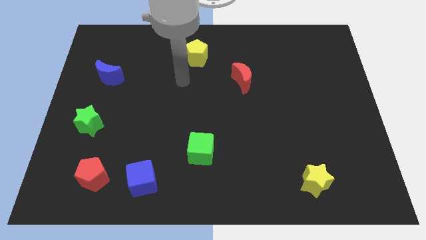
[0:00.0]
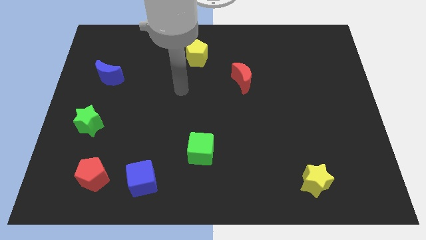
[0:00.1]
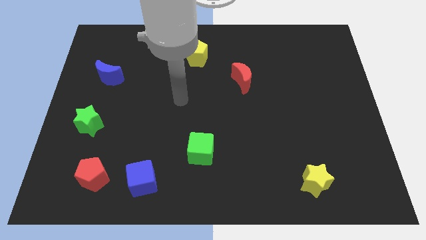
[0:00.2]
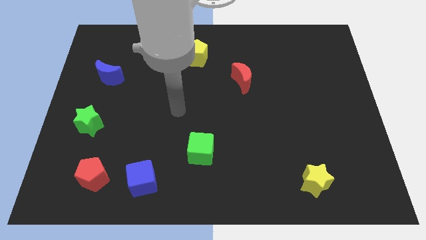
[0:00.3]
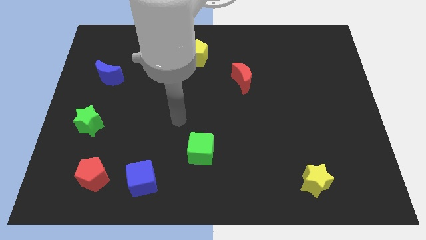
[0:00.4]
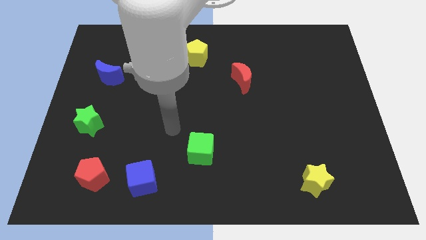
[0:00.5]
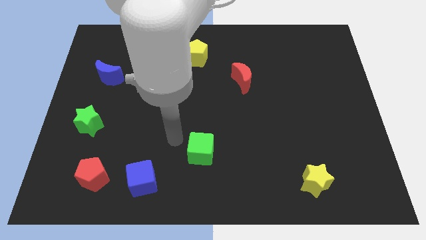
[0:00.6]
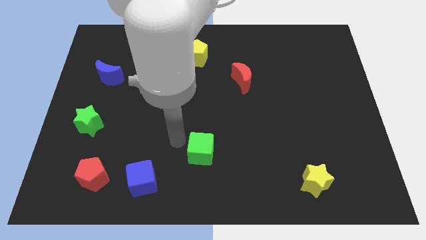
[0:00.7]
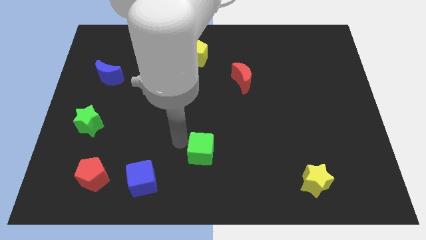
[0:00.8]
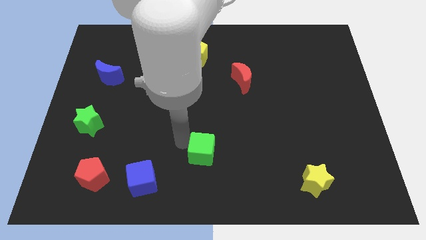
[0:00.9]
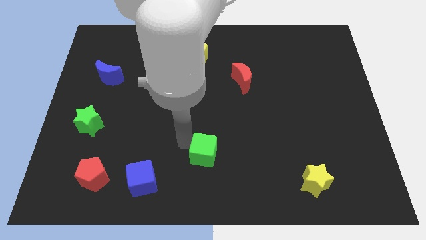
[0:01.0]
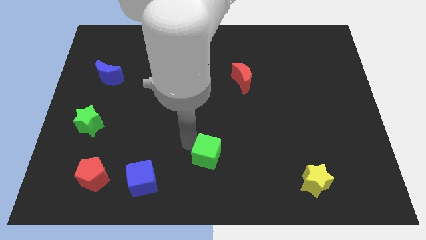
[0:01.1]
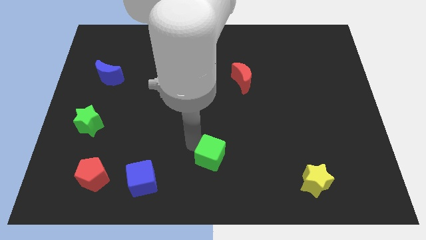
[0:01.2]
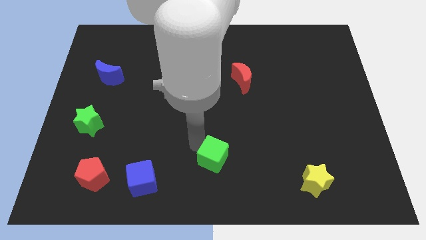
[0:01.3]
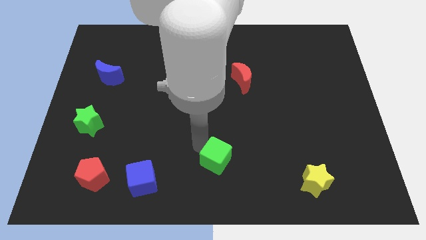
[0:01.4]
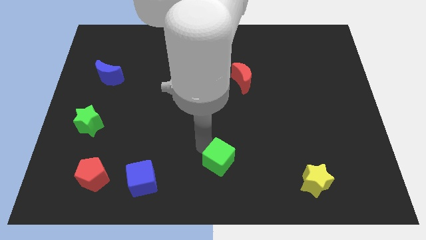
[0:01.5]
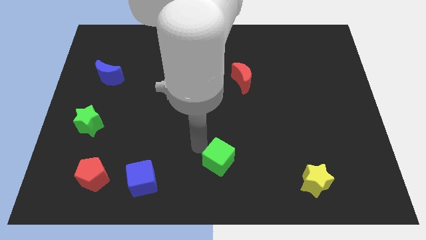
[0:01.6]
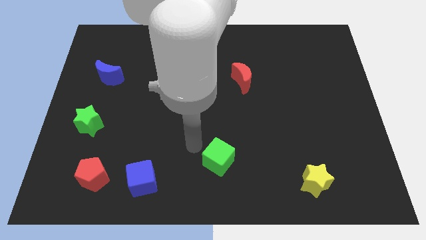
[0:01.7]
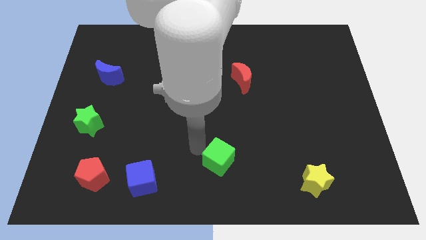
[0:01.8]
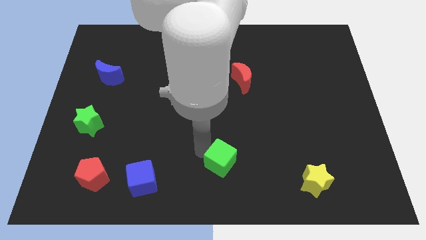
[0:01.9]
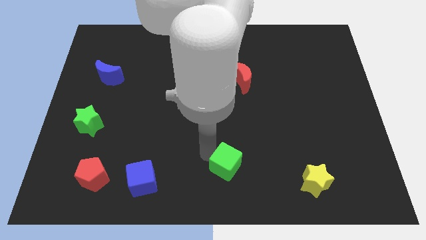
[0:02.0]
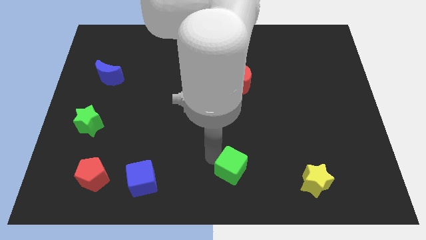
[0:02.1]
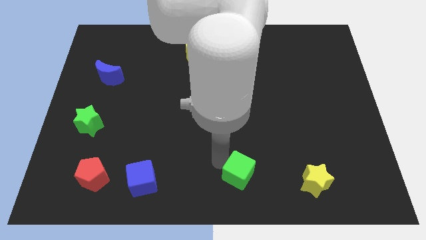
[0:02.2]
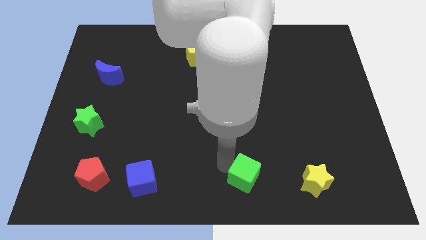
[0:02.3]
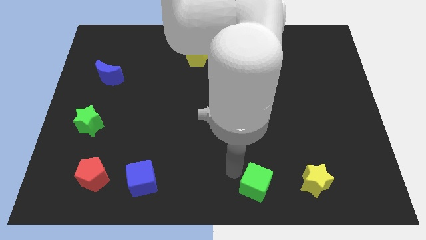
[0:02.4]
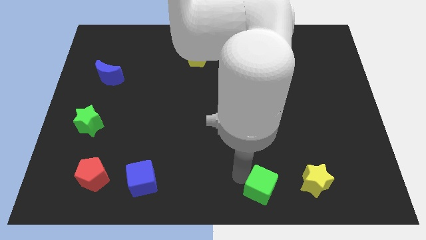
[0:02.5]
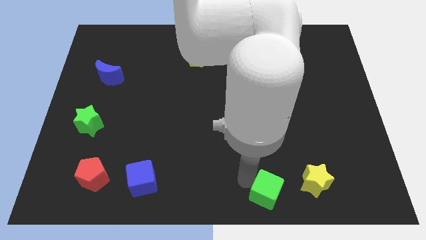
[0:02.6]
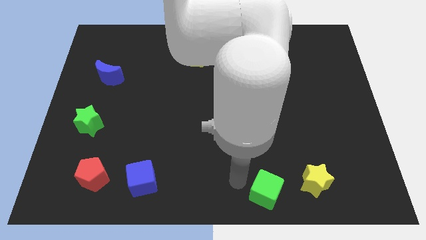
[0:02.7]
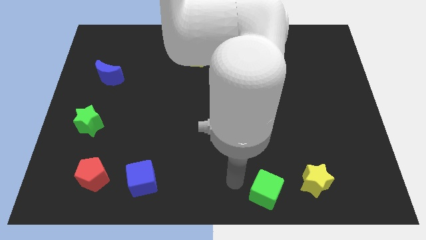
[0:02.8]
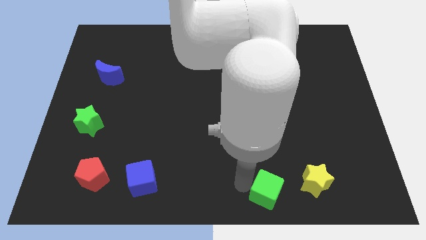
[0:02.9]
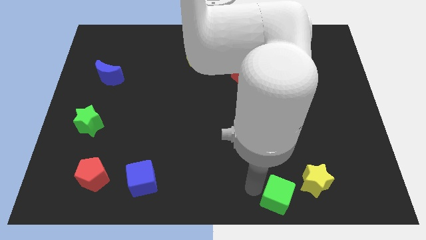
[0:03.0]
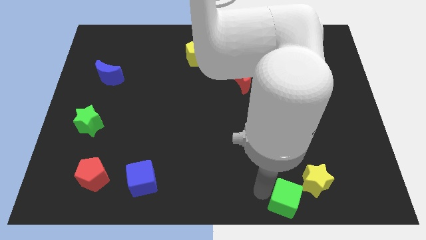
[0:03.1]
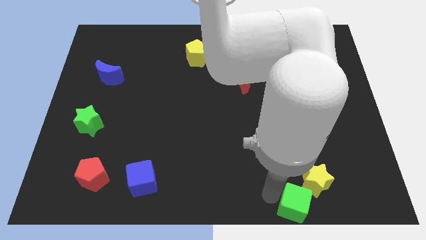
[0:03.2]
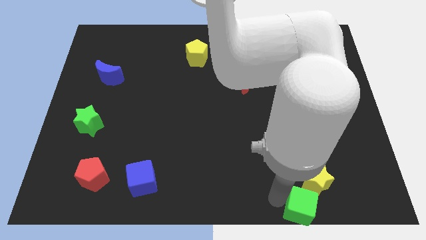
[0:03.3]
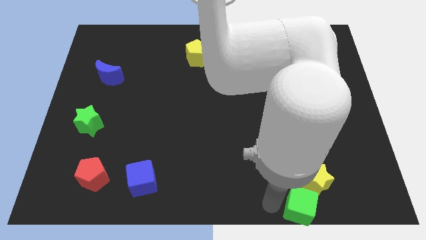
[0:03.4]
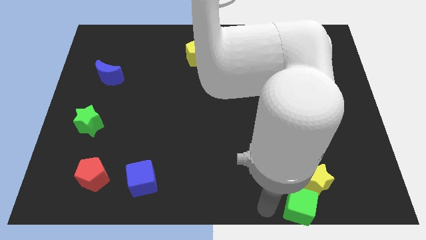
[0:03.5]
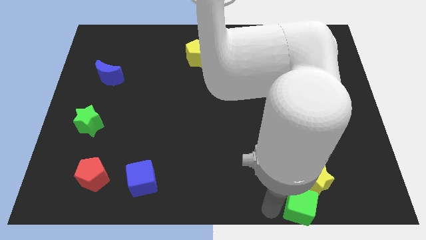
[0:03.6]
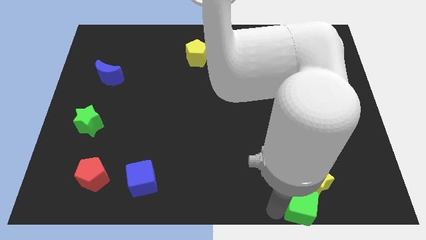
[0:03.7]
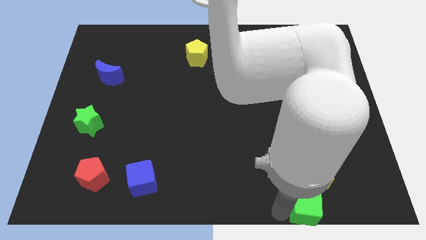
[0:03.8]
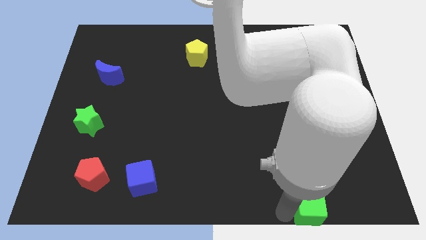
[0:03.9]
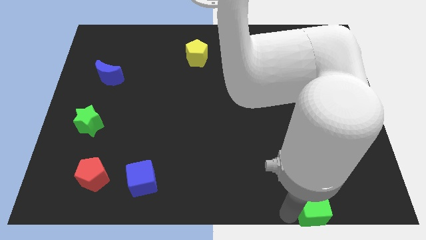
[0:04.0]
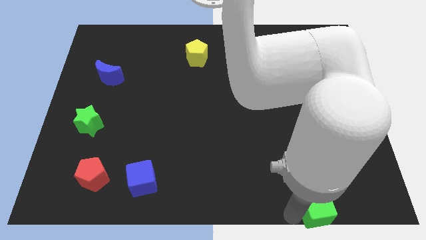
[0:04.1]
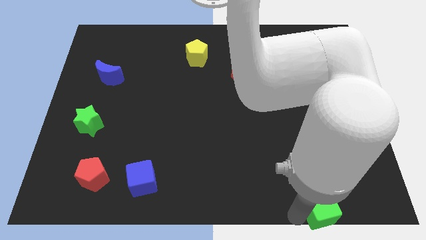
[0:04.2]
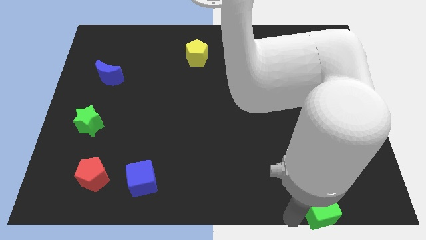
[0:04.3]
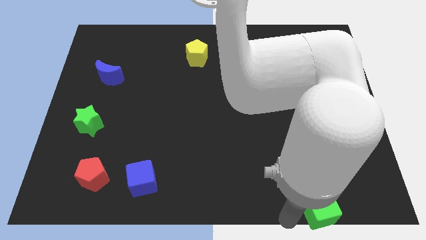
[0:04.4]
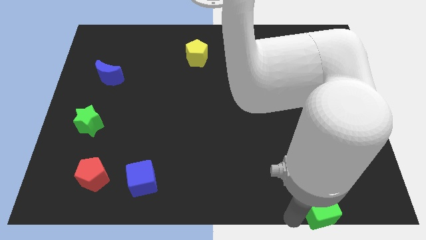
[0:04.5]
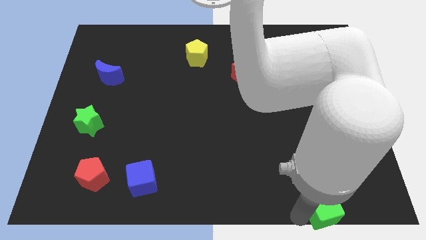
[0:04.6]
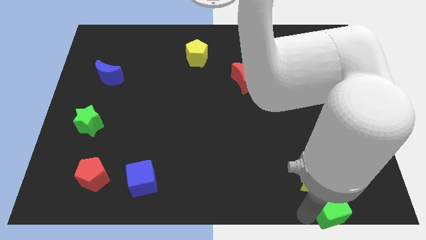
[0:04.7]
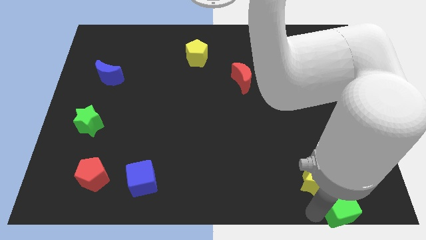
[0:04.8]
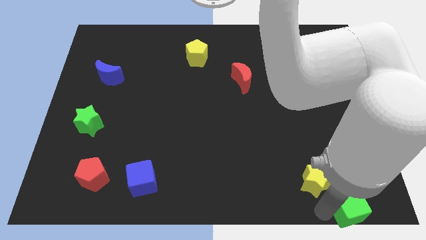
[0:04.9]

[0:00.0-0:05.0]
move the green cube to the bottom right of the board

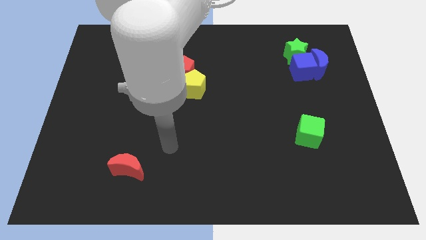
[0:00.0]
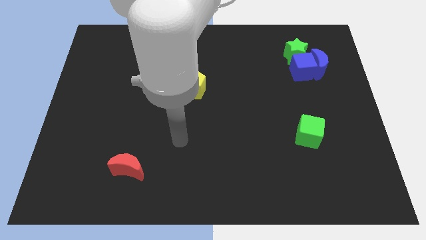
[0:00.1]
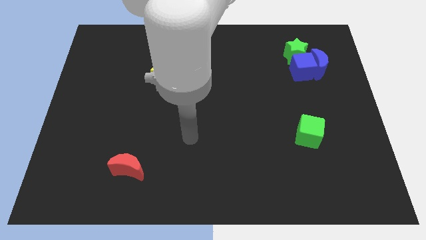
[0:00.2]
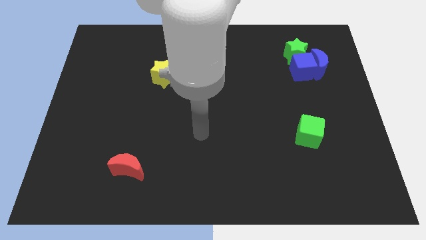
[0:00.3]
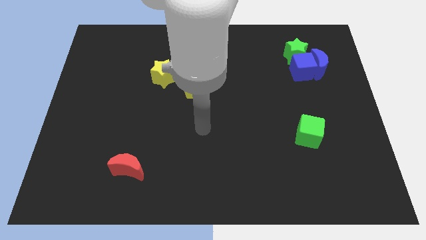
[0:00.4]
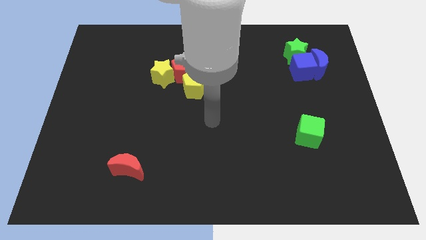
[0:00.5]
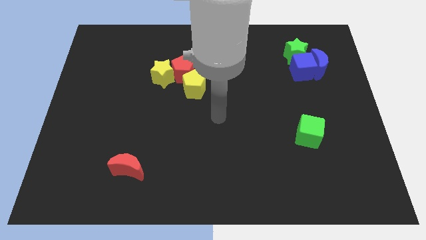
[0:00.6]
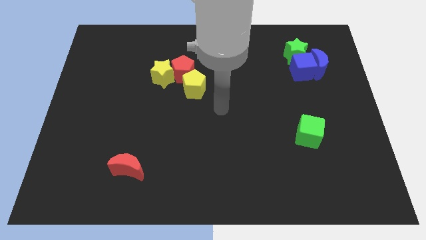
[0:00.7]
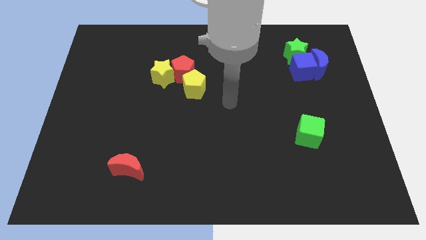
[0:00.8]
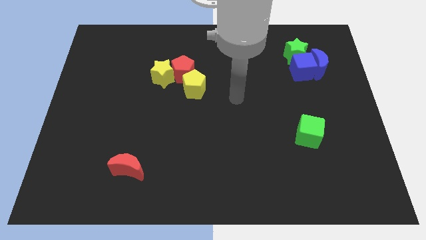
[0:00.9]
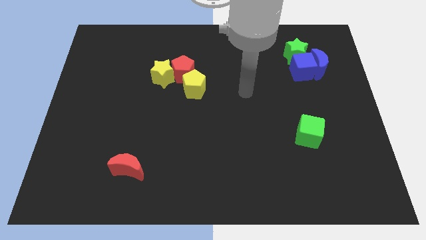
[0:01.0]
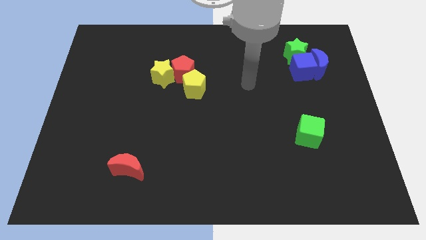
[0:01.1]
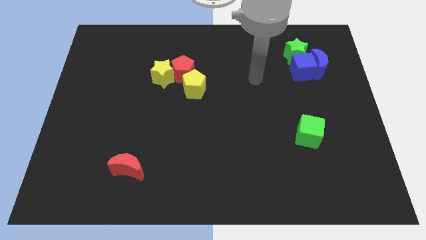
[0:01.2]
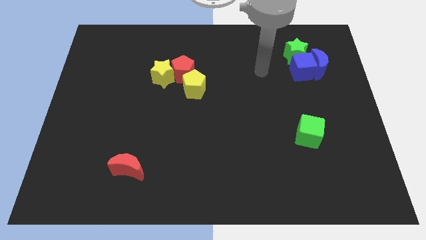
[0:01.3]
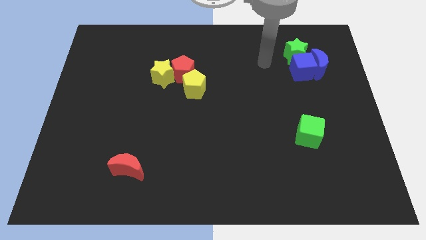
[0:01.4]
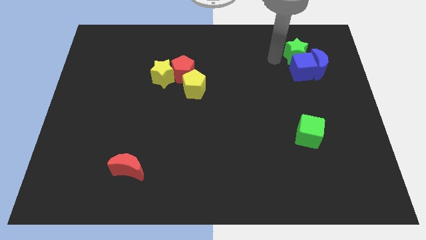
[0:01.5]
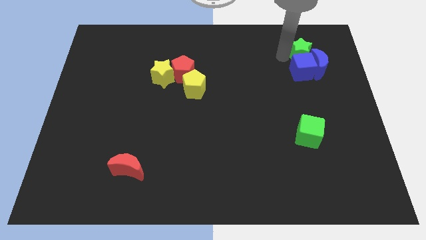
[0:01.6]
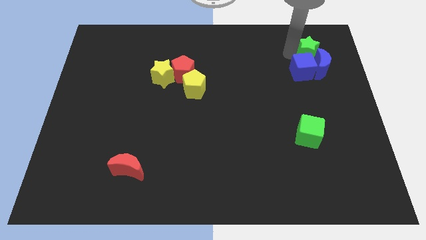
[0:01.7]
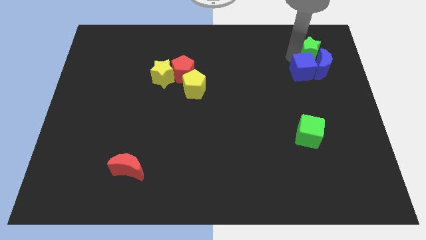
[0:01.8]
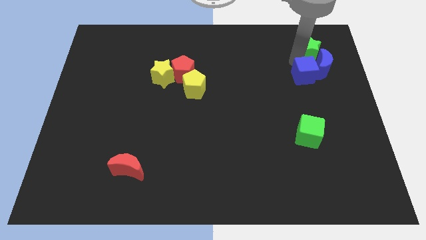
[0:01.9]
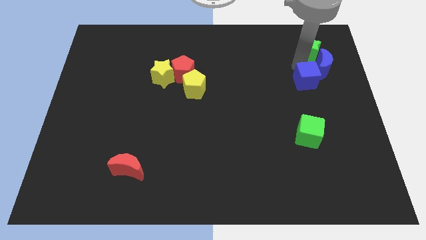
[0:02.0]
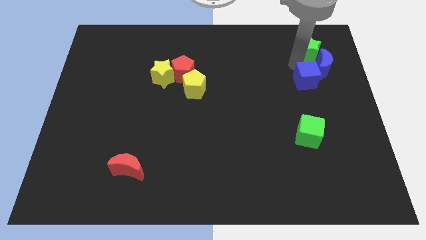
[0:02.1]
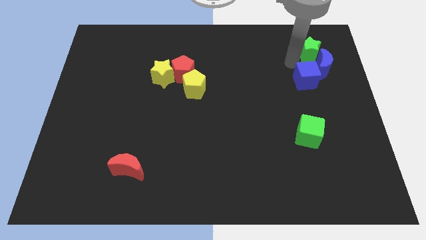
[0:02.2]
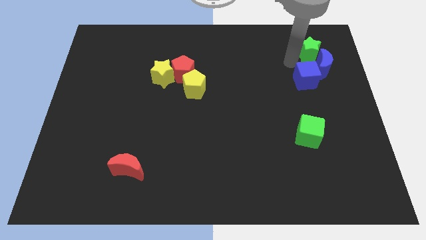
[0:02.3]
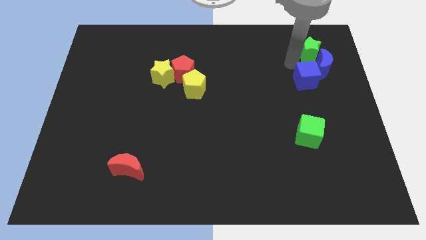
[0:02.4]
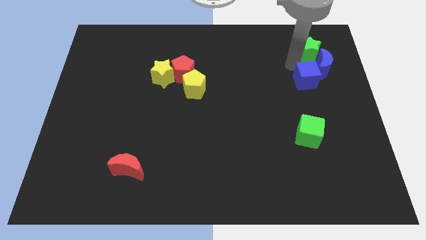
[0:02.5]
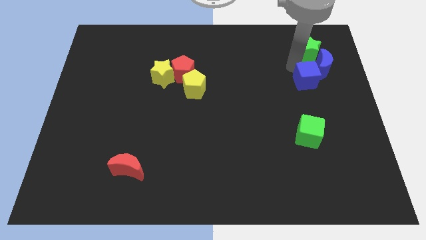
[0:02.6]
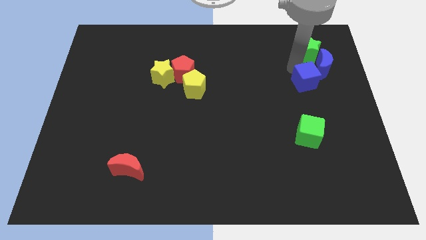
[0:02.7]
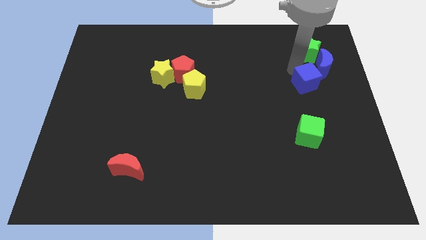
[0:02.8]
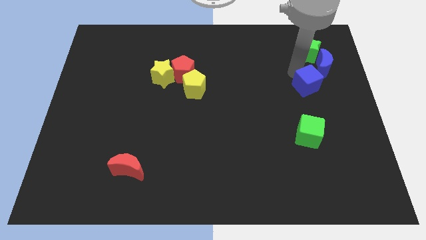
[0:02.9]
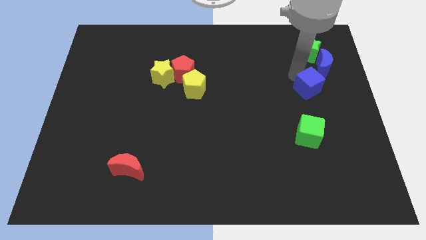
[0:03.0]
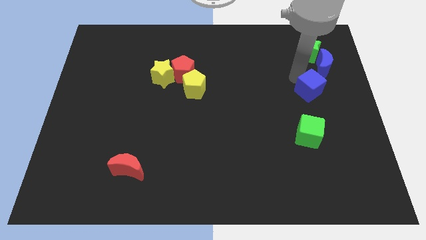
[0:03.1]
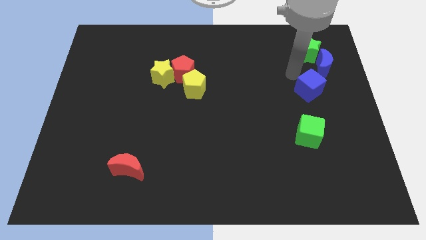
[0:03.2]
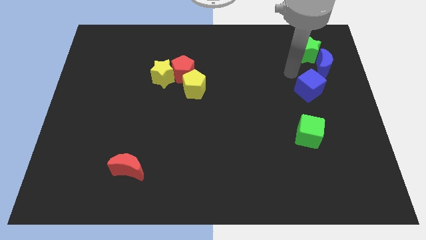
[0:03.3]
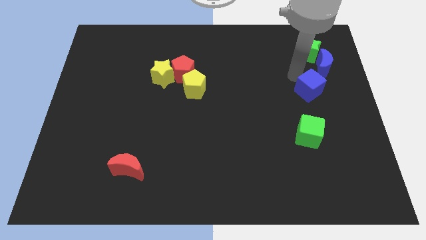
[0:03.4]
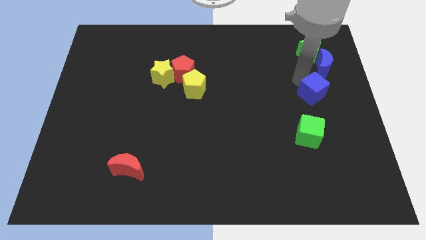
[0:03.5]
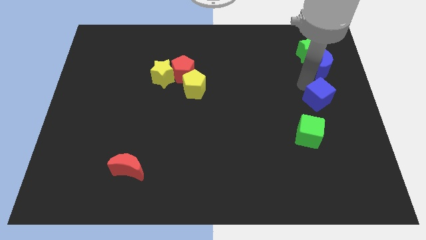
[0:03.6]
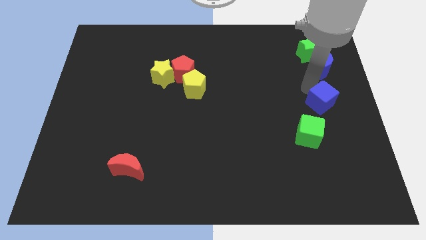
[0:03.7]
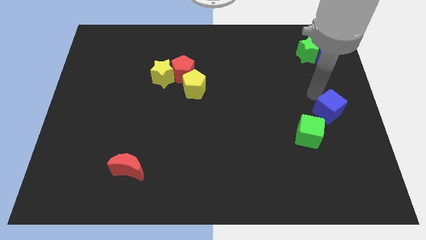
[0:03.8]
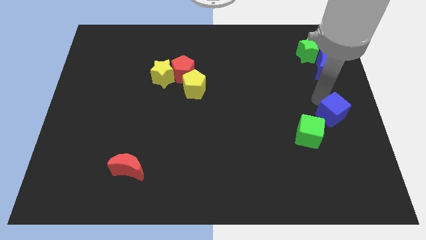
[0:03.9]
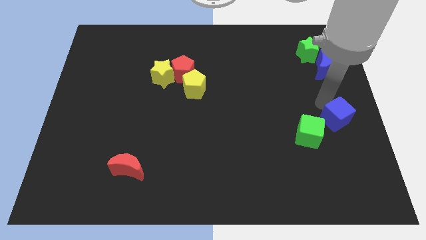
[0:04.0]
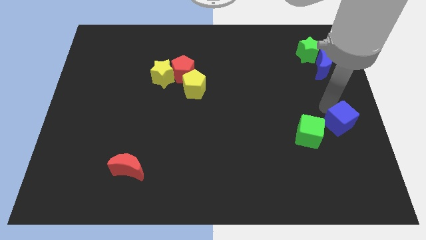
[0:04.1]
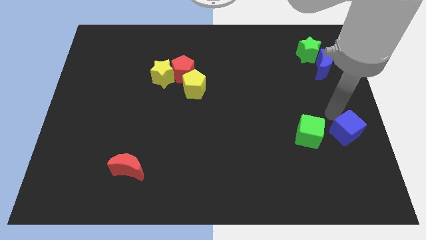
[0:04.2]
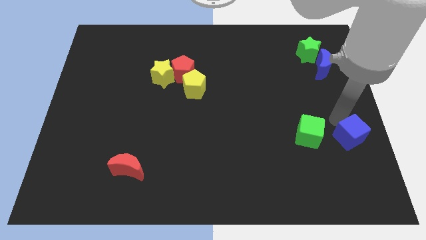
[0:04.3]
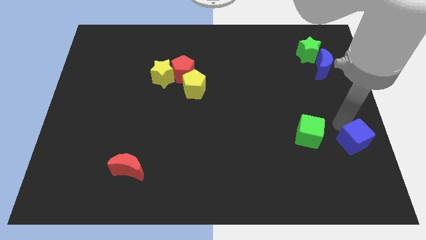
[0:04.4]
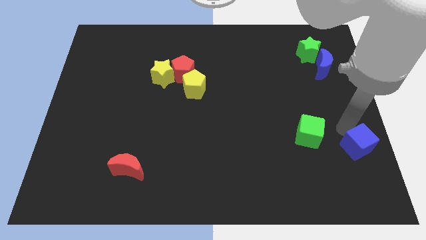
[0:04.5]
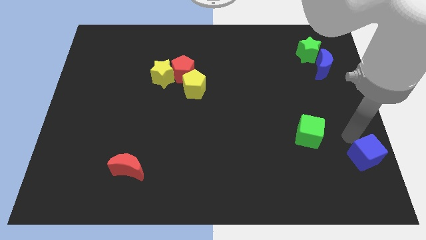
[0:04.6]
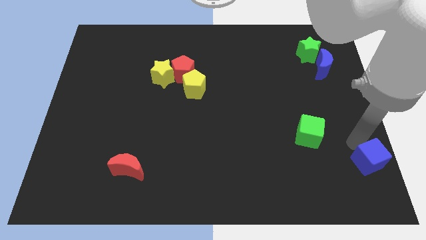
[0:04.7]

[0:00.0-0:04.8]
put the blue cube to the bottom right
